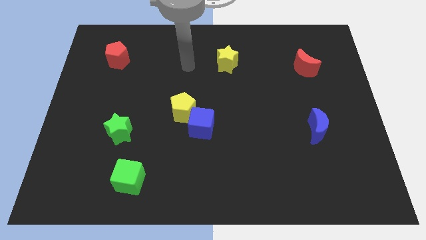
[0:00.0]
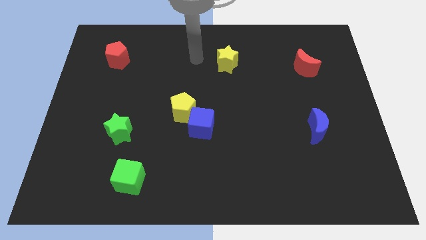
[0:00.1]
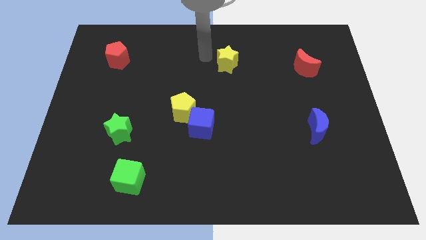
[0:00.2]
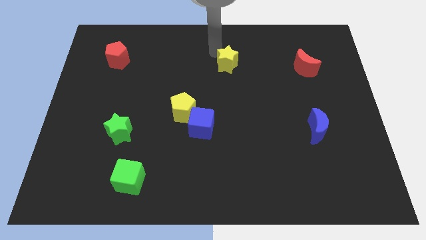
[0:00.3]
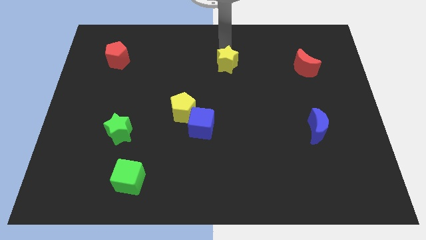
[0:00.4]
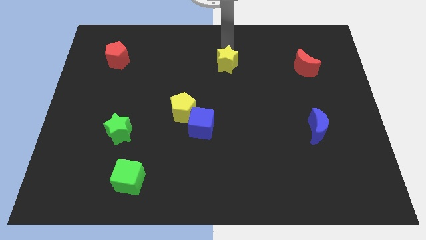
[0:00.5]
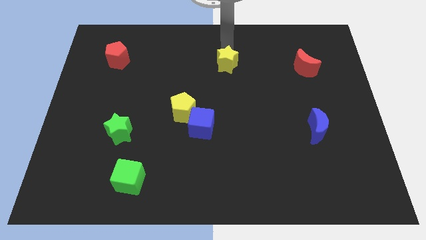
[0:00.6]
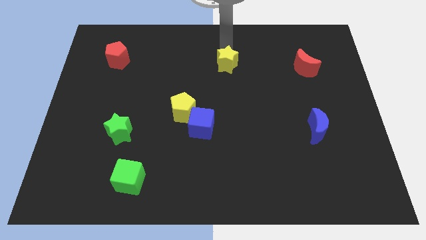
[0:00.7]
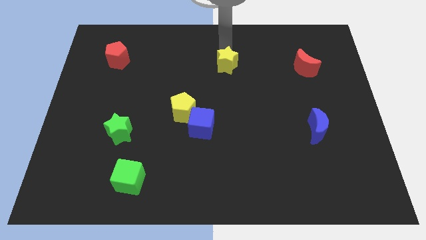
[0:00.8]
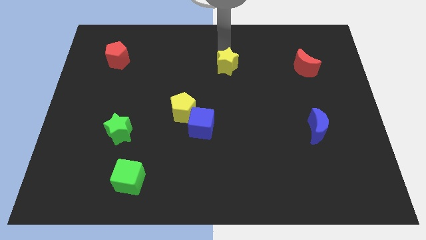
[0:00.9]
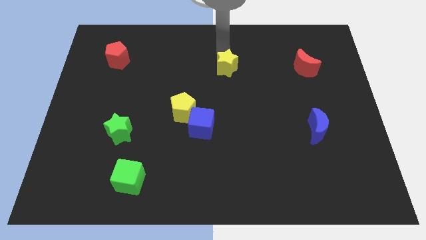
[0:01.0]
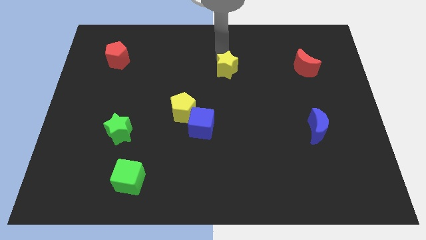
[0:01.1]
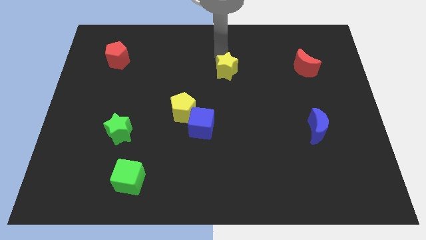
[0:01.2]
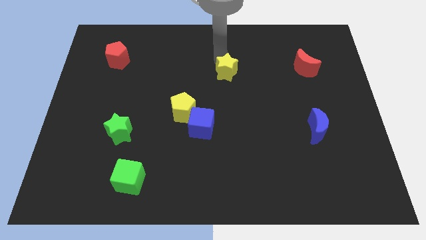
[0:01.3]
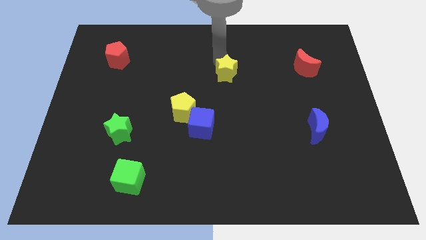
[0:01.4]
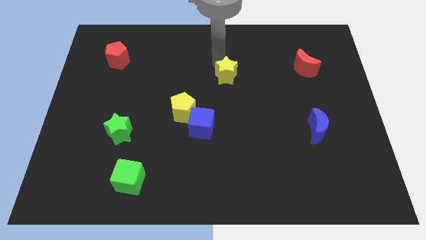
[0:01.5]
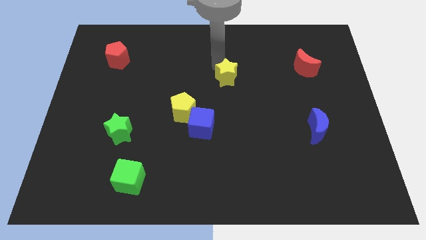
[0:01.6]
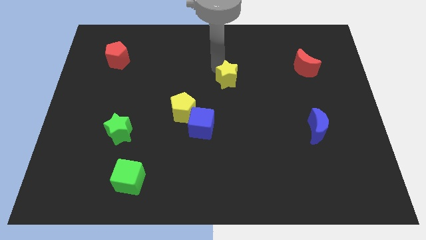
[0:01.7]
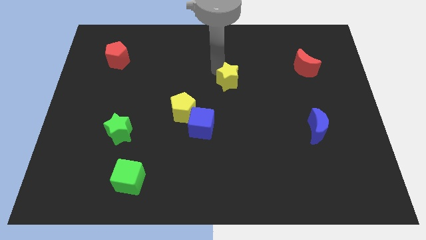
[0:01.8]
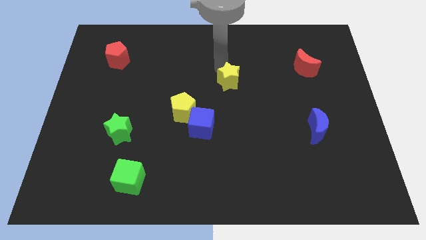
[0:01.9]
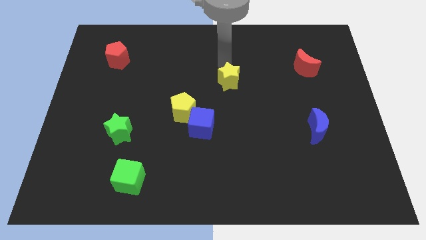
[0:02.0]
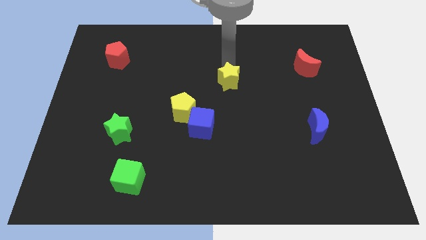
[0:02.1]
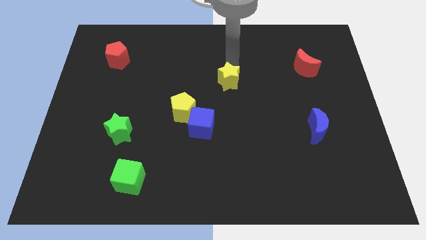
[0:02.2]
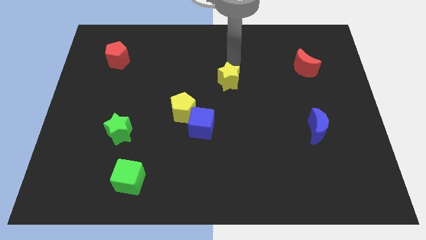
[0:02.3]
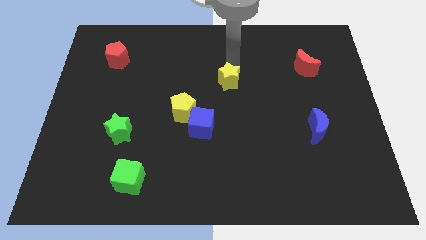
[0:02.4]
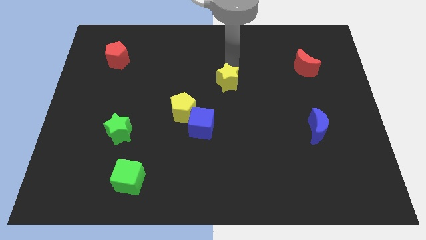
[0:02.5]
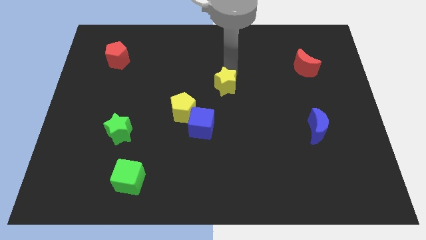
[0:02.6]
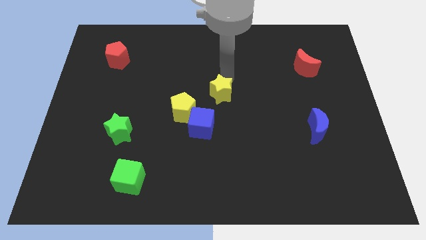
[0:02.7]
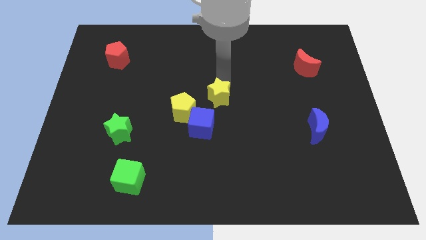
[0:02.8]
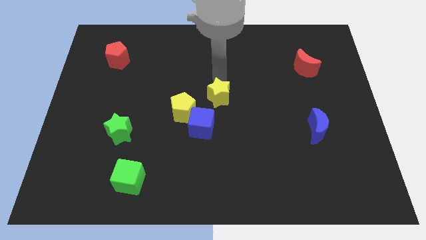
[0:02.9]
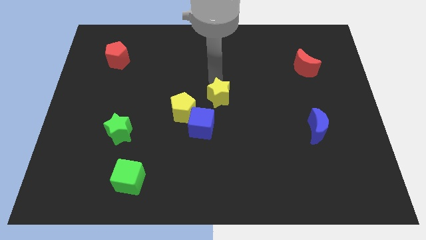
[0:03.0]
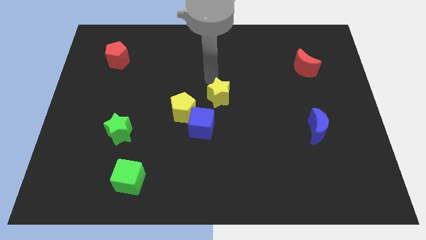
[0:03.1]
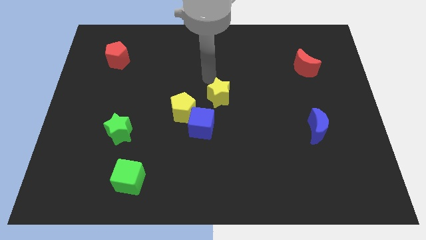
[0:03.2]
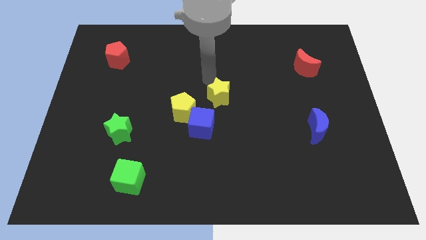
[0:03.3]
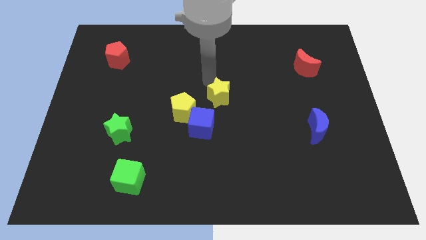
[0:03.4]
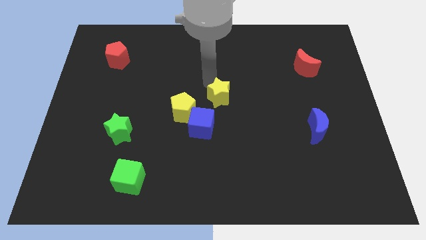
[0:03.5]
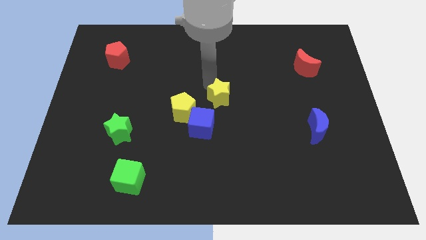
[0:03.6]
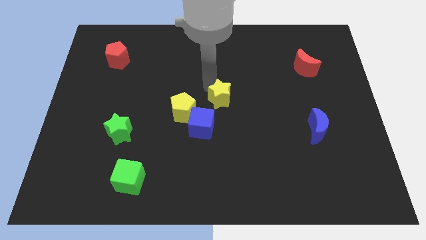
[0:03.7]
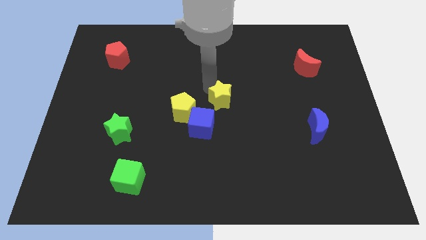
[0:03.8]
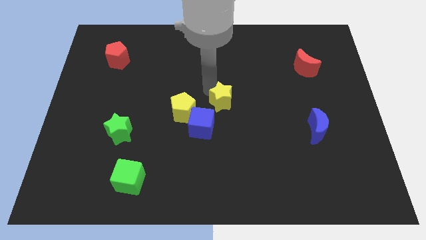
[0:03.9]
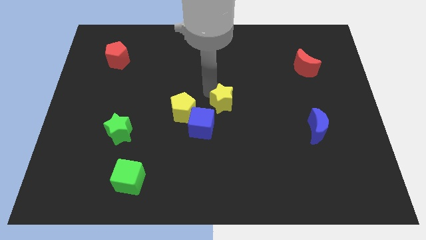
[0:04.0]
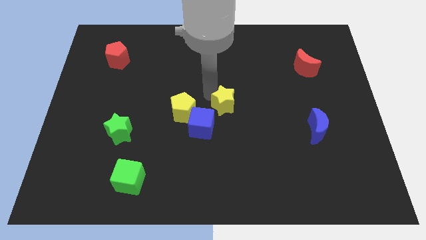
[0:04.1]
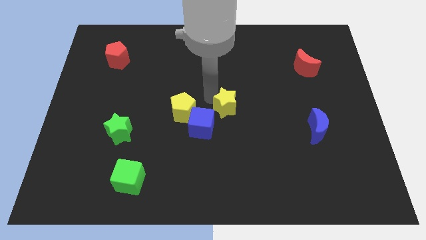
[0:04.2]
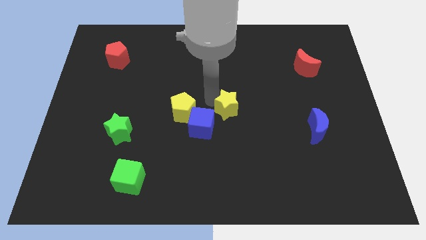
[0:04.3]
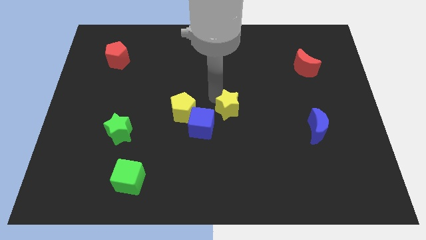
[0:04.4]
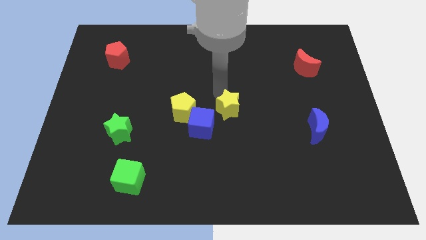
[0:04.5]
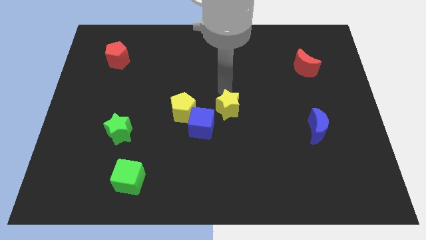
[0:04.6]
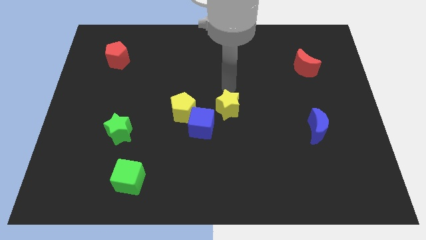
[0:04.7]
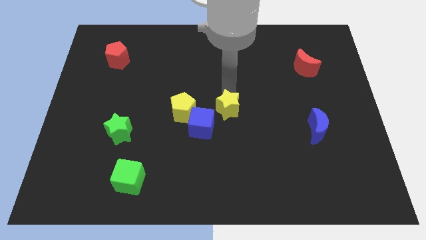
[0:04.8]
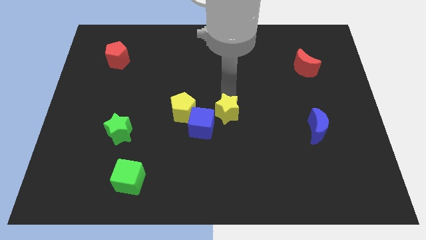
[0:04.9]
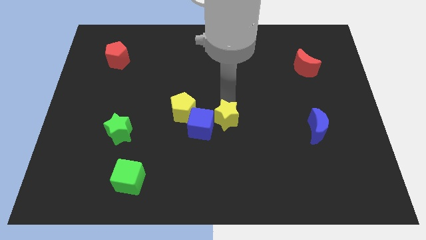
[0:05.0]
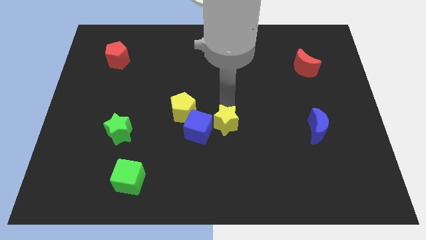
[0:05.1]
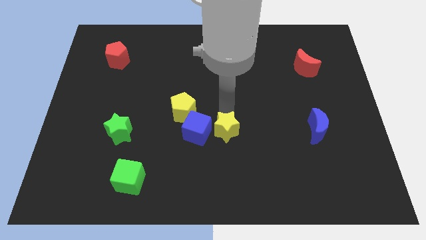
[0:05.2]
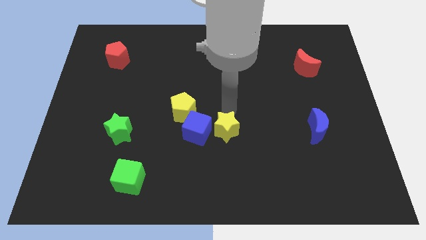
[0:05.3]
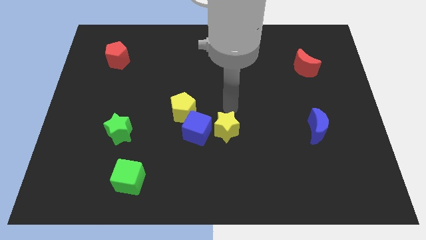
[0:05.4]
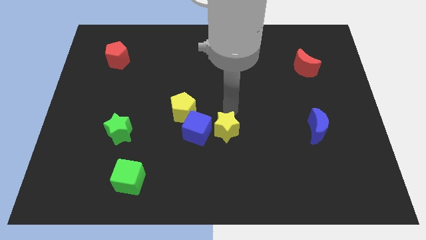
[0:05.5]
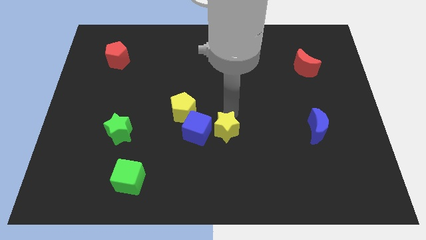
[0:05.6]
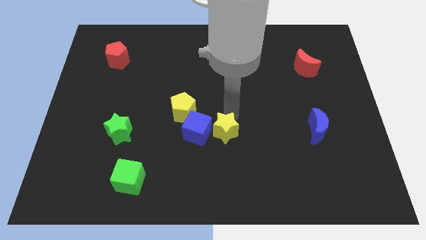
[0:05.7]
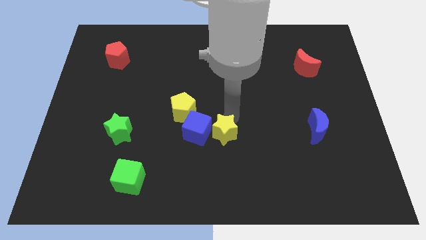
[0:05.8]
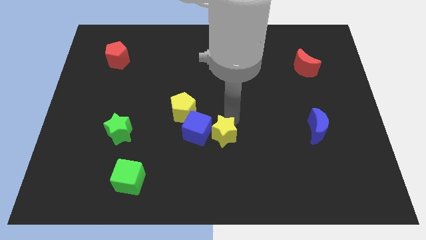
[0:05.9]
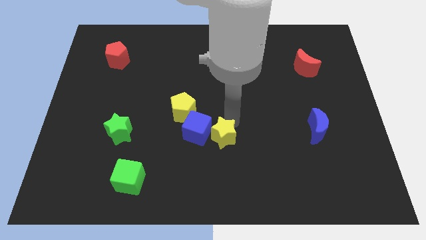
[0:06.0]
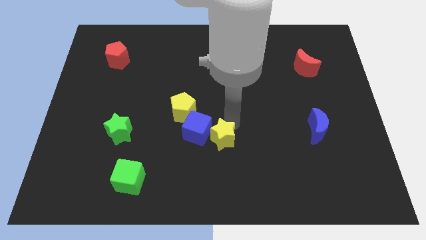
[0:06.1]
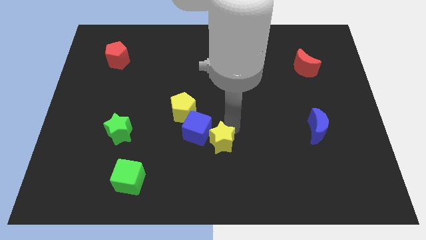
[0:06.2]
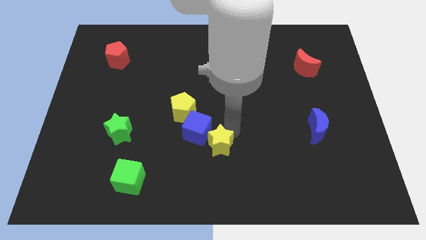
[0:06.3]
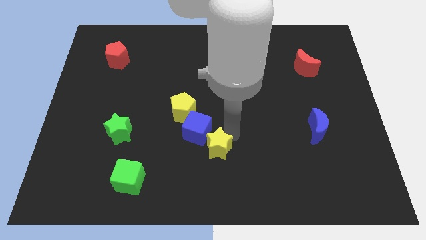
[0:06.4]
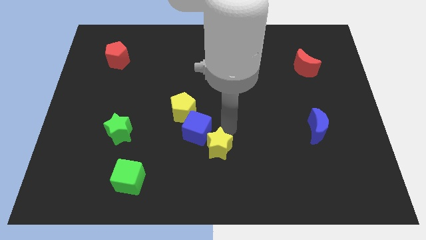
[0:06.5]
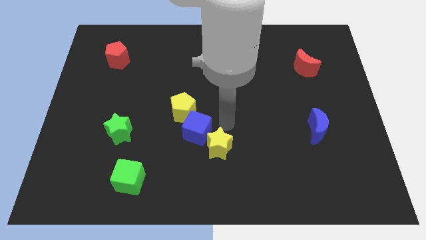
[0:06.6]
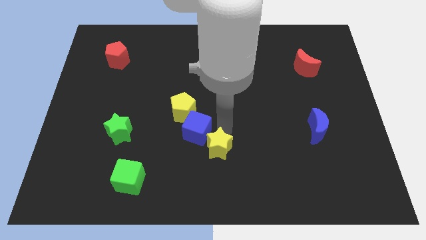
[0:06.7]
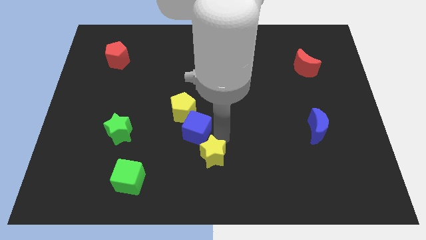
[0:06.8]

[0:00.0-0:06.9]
put the yellow star to the bottom side
